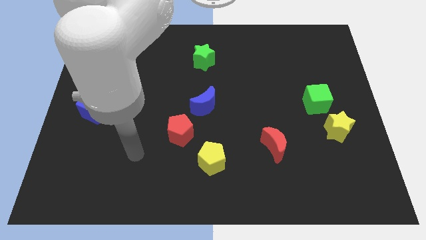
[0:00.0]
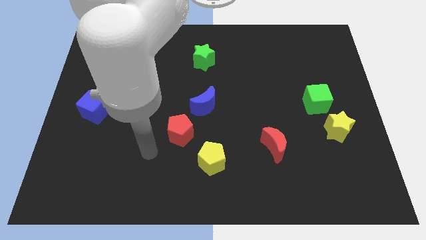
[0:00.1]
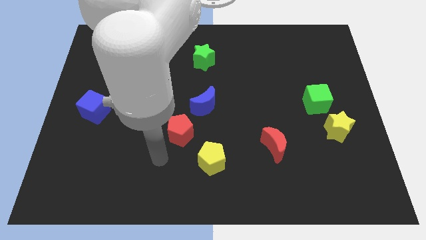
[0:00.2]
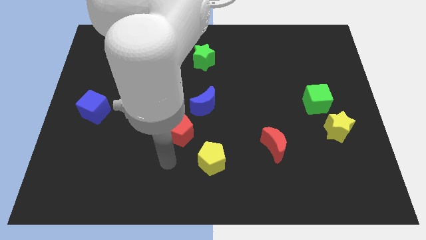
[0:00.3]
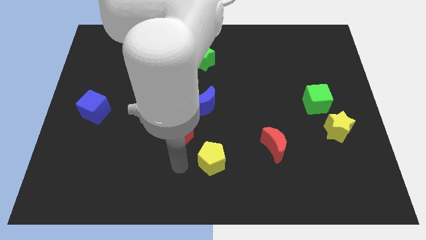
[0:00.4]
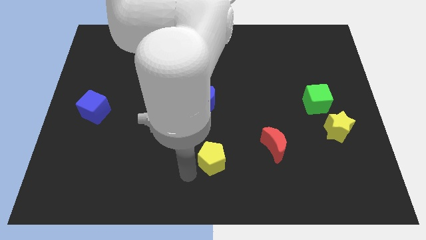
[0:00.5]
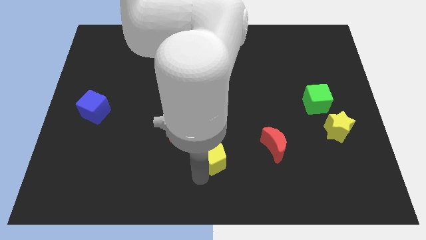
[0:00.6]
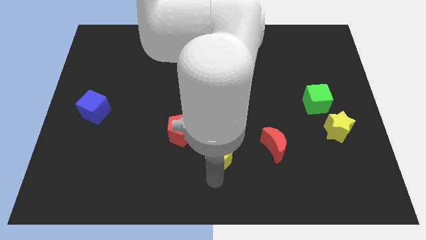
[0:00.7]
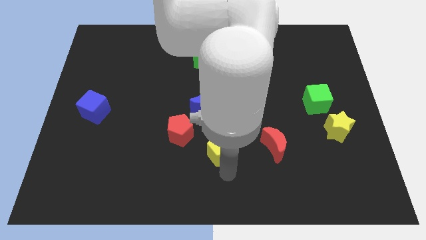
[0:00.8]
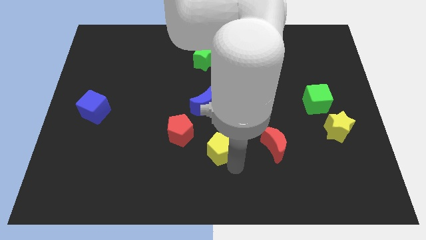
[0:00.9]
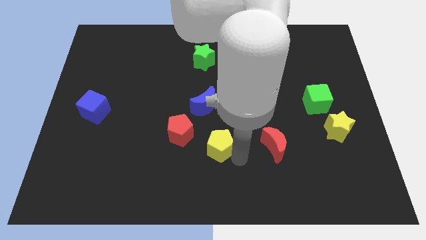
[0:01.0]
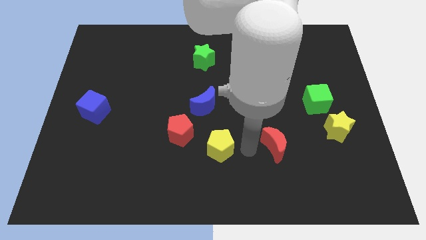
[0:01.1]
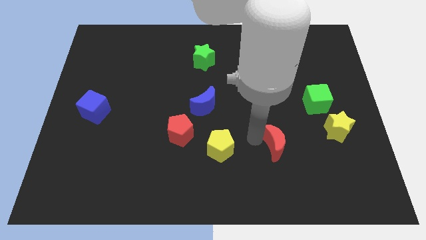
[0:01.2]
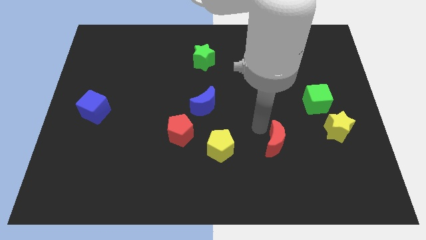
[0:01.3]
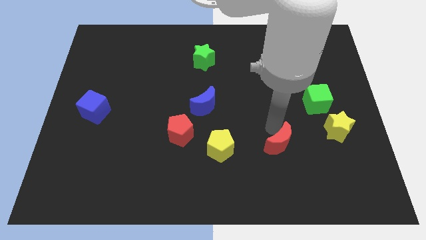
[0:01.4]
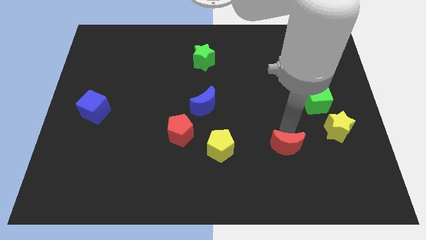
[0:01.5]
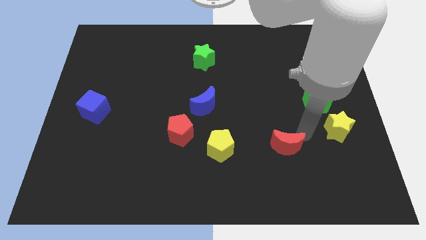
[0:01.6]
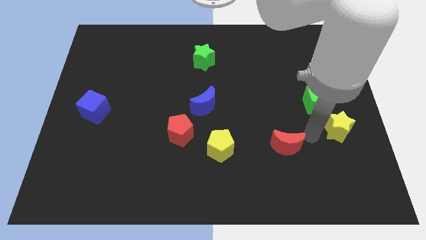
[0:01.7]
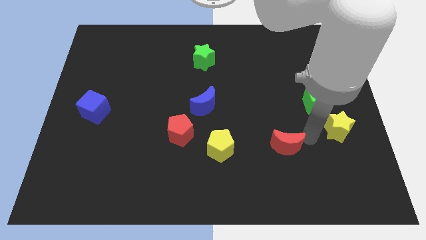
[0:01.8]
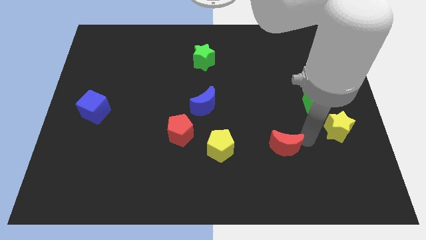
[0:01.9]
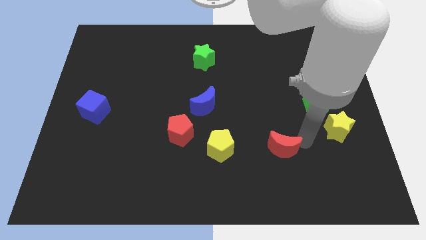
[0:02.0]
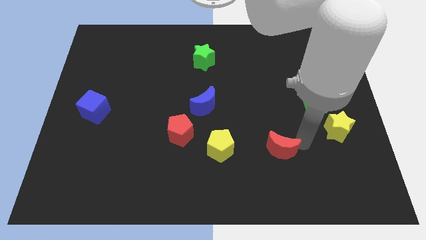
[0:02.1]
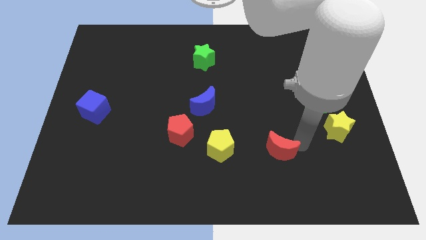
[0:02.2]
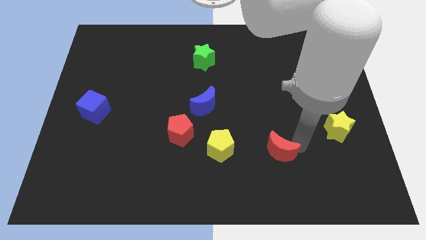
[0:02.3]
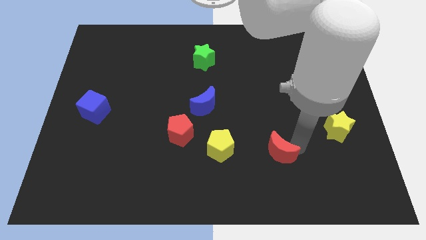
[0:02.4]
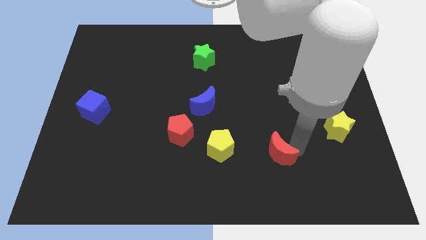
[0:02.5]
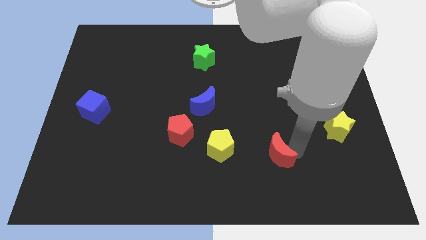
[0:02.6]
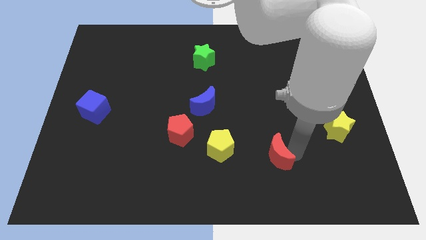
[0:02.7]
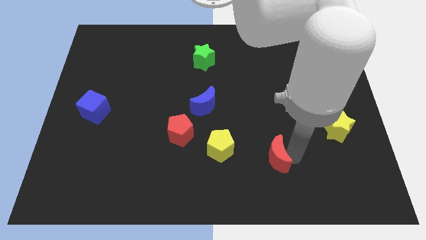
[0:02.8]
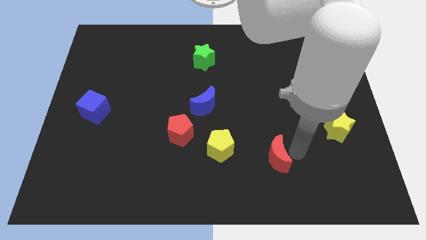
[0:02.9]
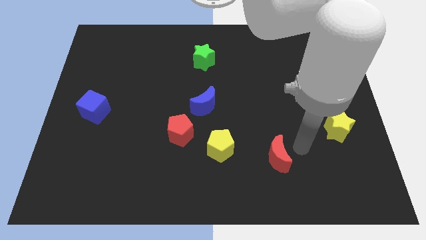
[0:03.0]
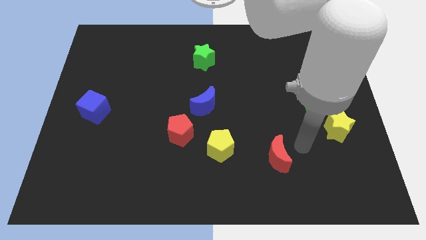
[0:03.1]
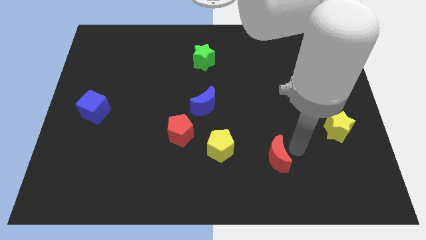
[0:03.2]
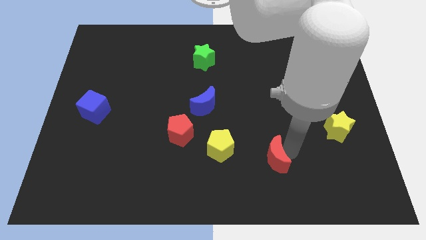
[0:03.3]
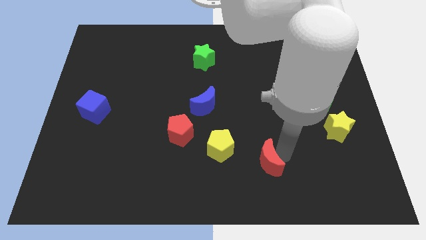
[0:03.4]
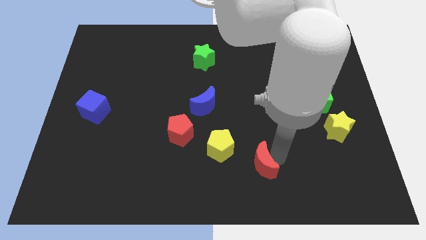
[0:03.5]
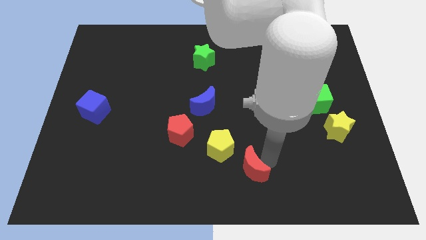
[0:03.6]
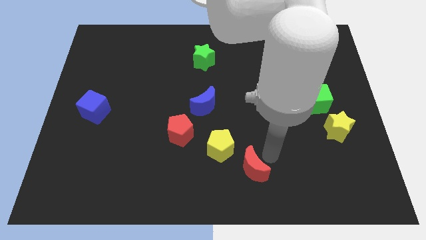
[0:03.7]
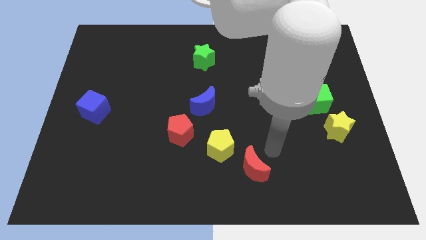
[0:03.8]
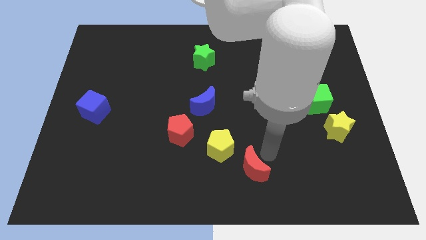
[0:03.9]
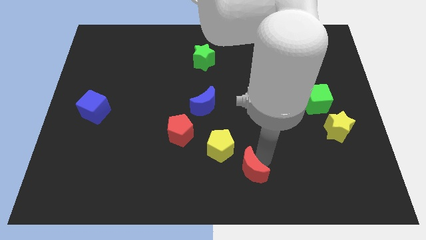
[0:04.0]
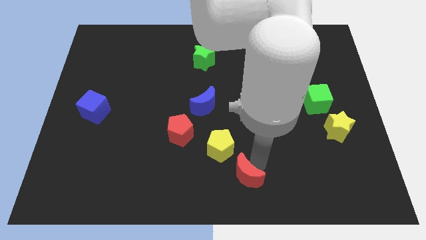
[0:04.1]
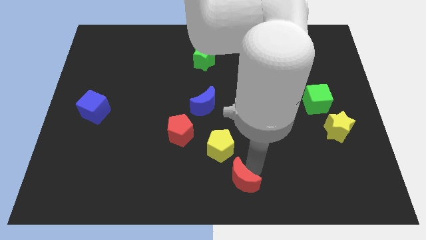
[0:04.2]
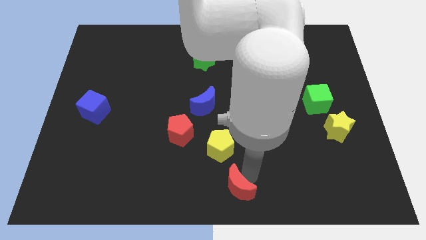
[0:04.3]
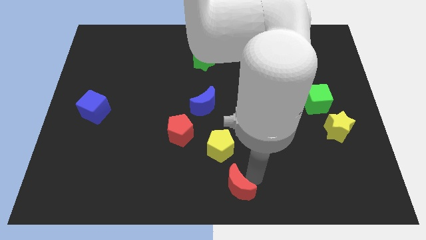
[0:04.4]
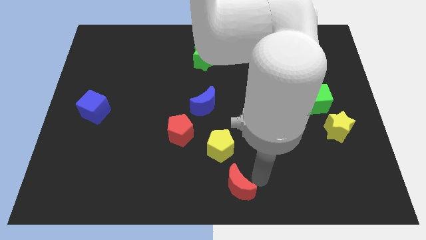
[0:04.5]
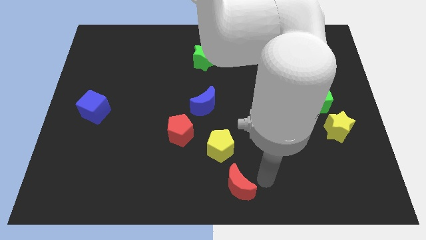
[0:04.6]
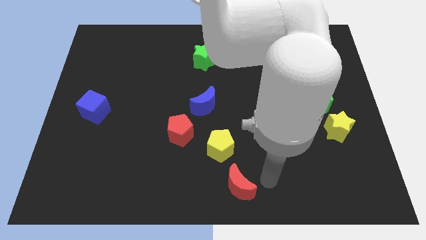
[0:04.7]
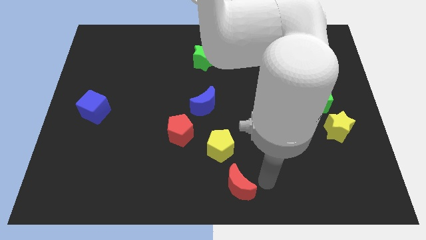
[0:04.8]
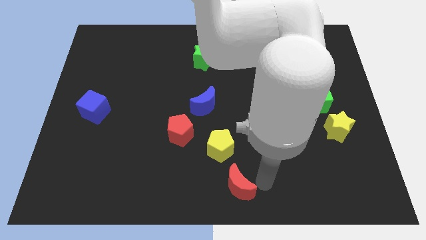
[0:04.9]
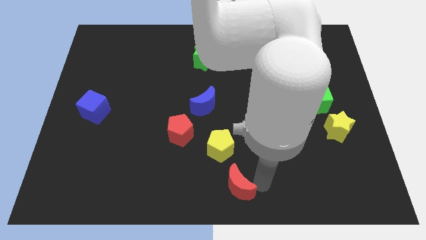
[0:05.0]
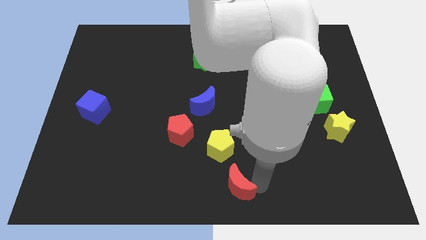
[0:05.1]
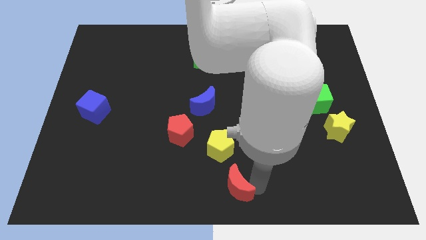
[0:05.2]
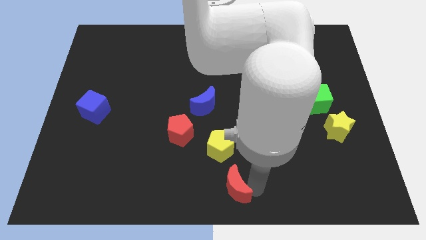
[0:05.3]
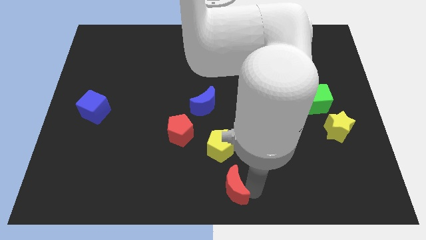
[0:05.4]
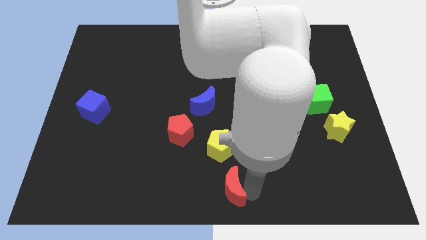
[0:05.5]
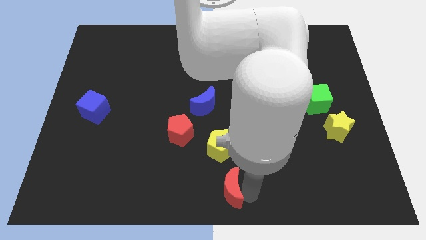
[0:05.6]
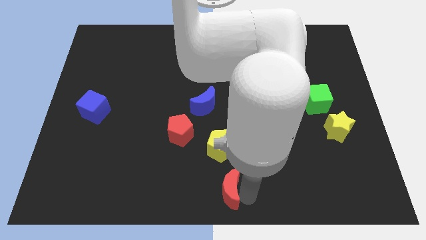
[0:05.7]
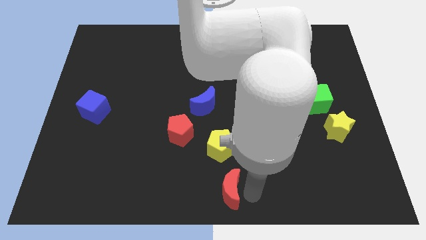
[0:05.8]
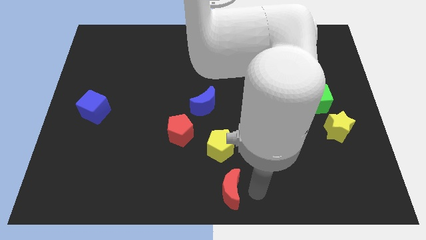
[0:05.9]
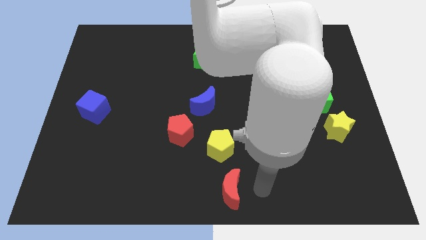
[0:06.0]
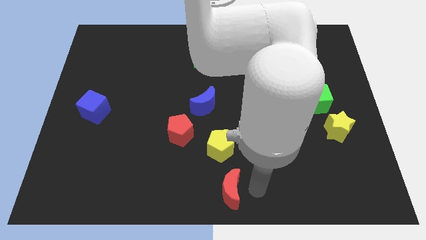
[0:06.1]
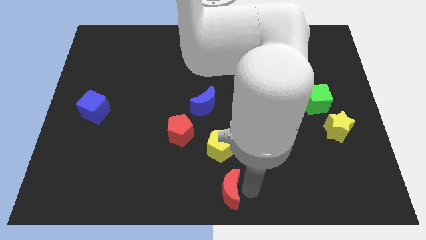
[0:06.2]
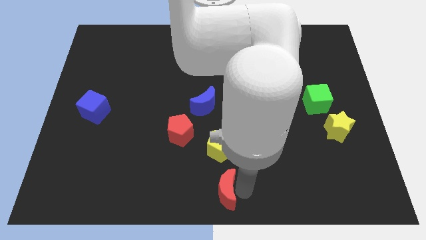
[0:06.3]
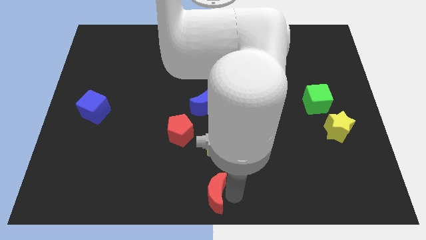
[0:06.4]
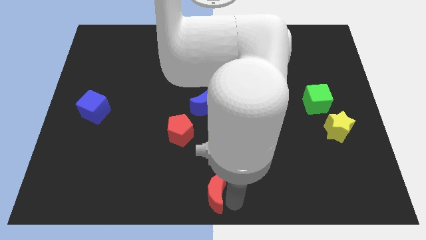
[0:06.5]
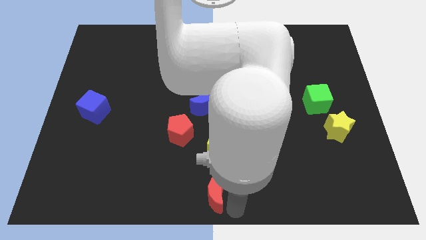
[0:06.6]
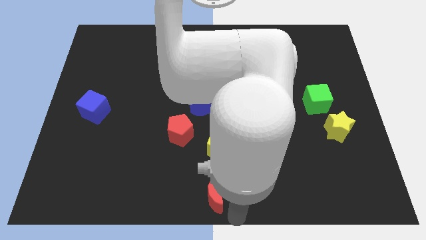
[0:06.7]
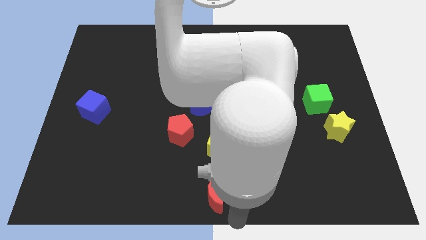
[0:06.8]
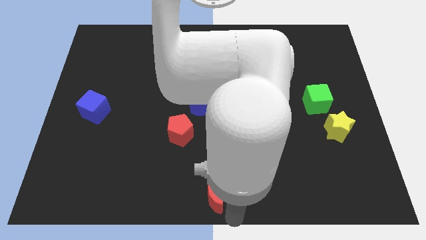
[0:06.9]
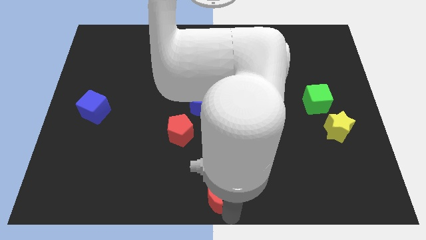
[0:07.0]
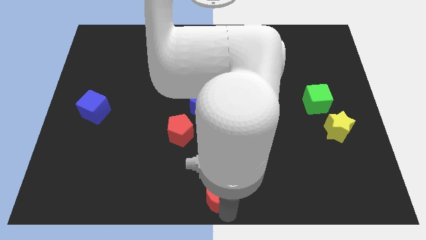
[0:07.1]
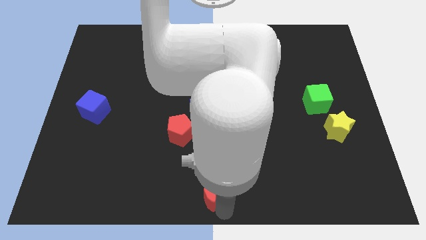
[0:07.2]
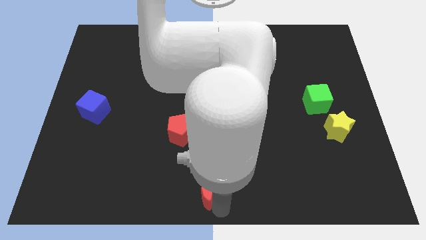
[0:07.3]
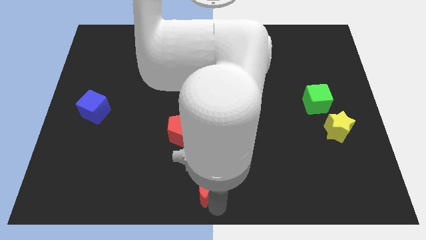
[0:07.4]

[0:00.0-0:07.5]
slide the red moon to the bottom left of the yellow pentagon
